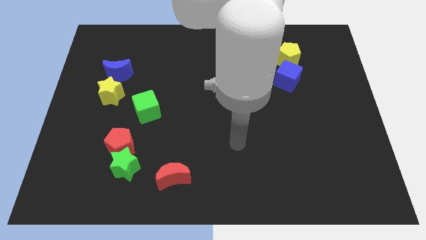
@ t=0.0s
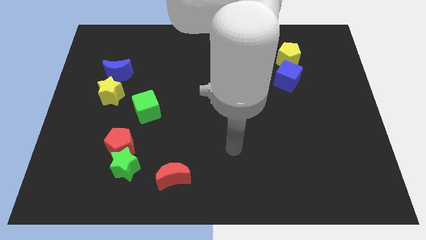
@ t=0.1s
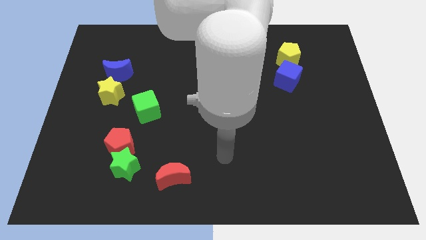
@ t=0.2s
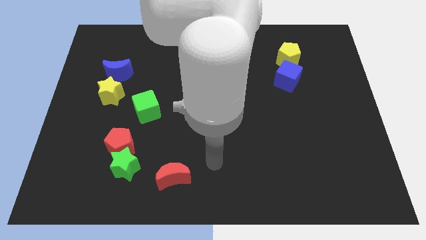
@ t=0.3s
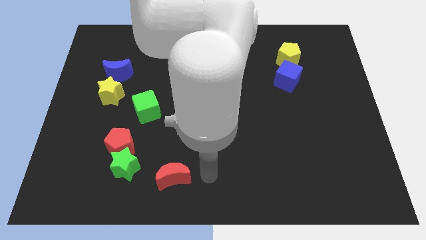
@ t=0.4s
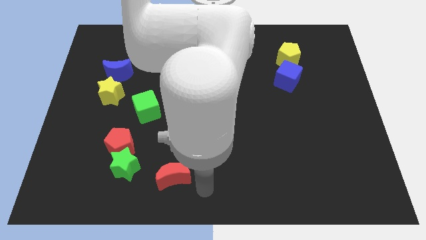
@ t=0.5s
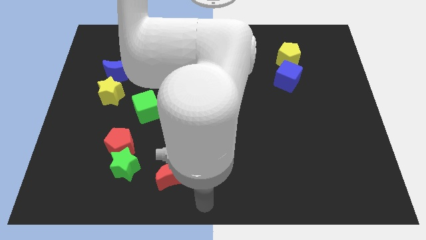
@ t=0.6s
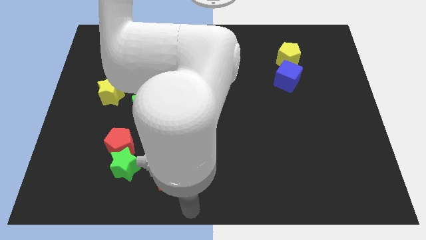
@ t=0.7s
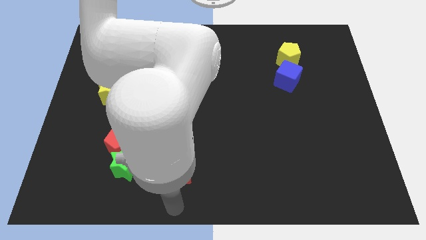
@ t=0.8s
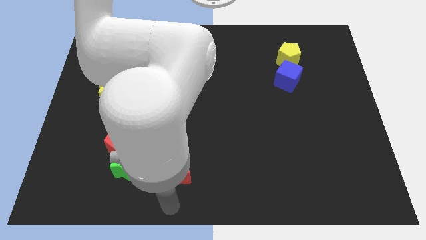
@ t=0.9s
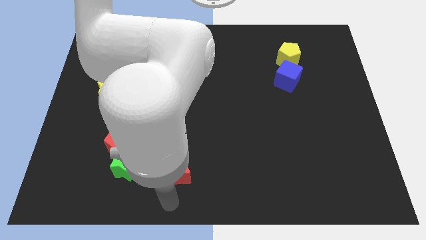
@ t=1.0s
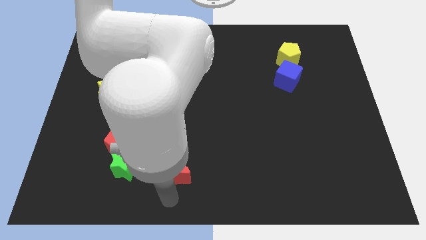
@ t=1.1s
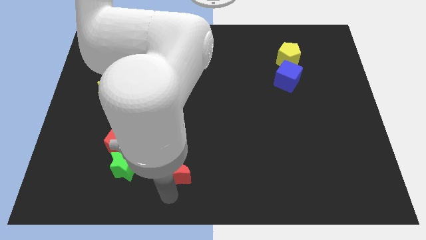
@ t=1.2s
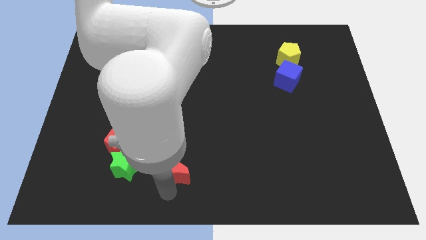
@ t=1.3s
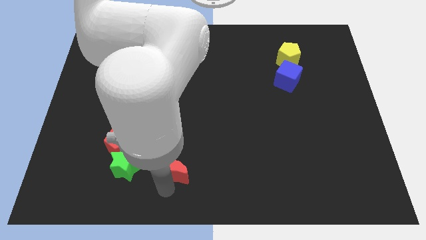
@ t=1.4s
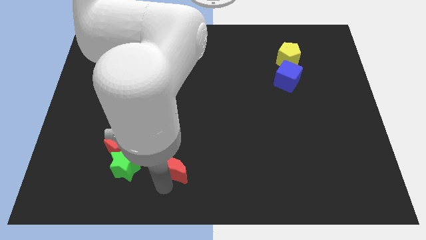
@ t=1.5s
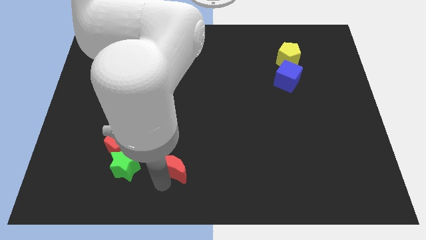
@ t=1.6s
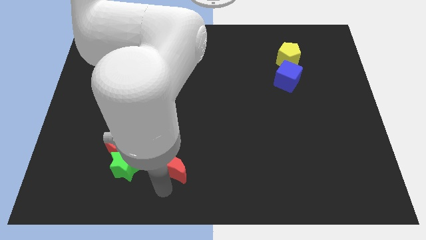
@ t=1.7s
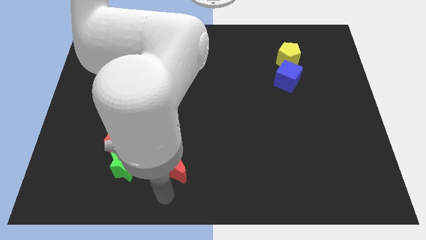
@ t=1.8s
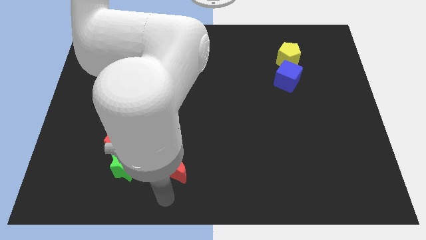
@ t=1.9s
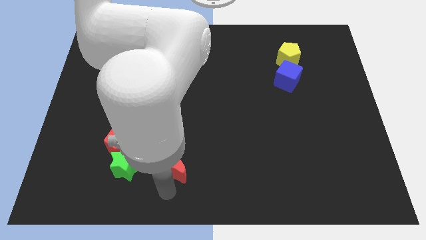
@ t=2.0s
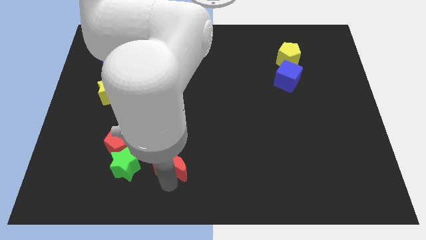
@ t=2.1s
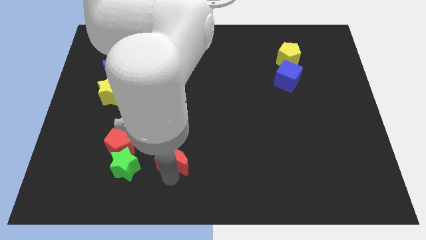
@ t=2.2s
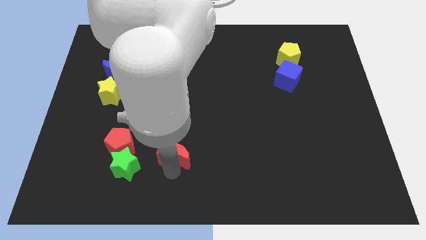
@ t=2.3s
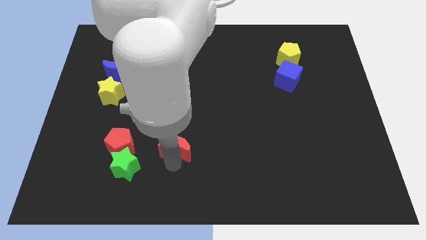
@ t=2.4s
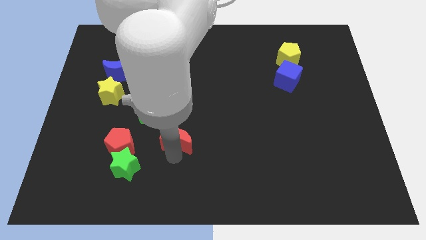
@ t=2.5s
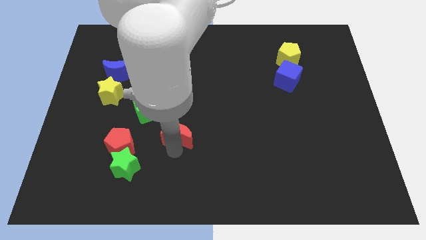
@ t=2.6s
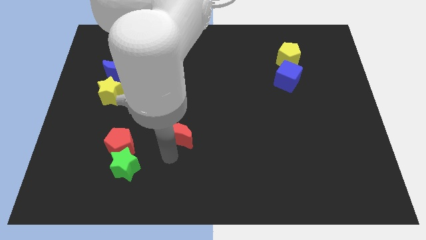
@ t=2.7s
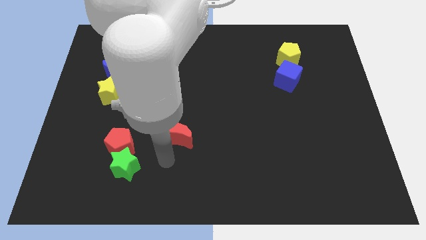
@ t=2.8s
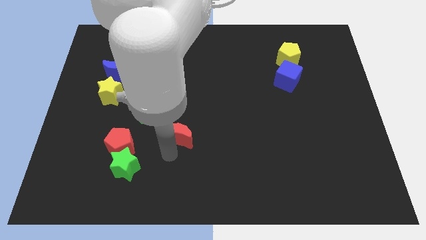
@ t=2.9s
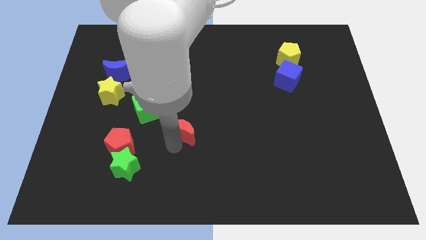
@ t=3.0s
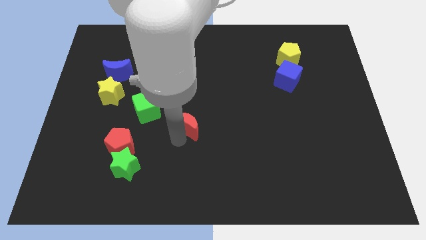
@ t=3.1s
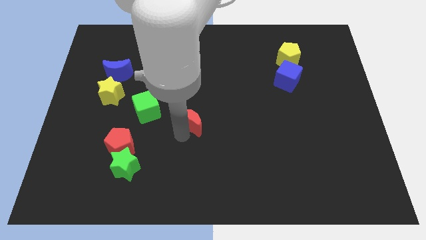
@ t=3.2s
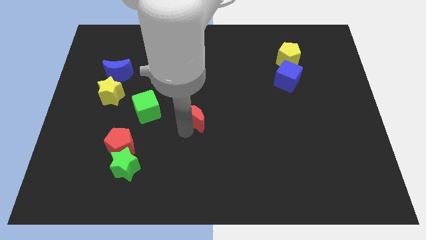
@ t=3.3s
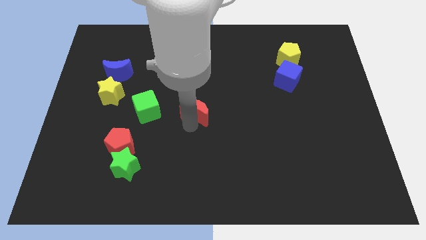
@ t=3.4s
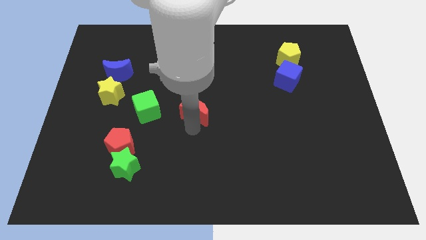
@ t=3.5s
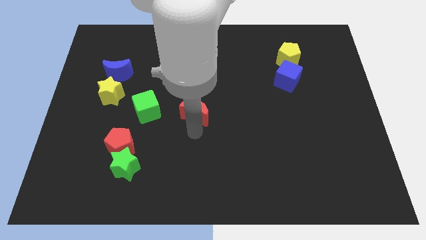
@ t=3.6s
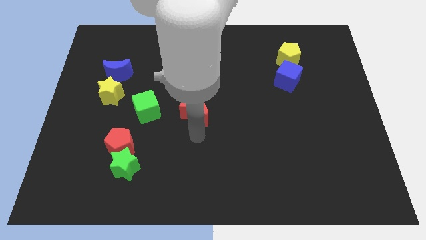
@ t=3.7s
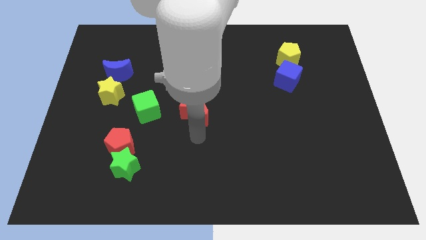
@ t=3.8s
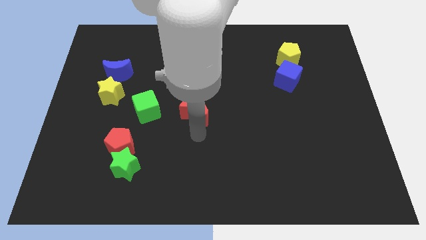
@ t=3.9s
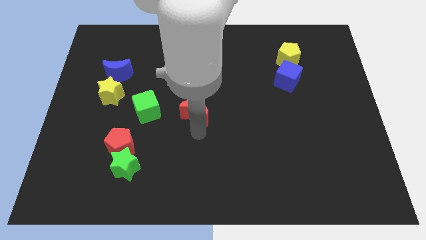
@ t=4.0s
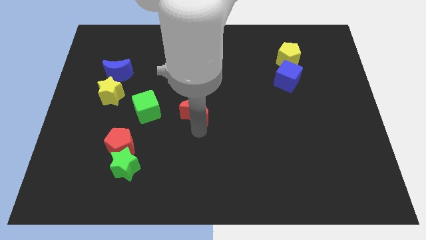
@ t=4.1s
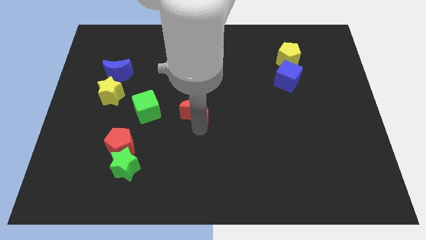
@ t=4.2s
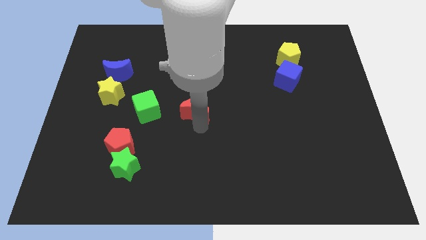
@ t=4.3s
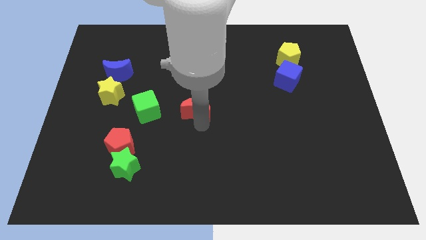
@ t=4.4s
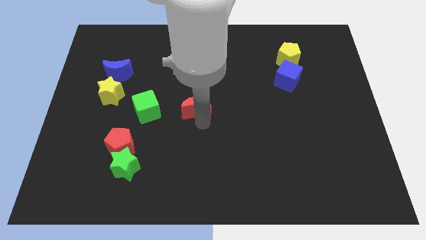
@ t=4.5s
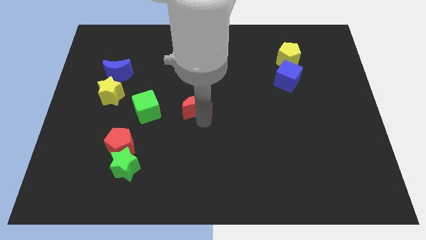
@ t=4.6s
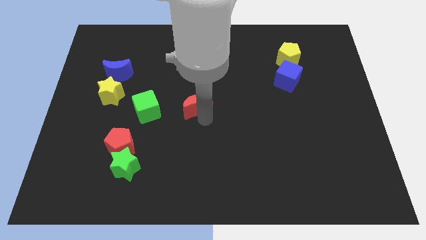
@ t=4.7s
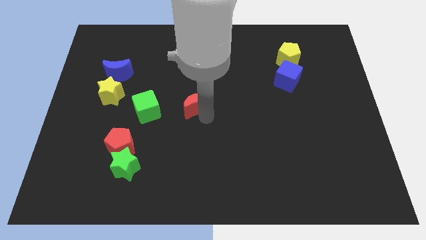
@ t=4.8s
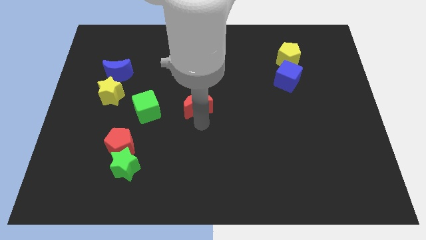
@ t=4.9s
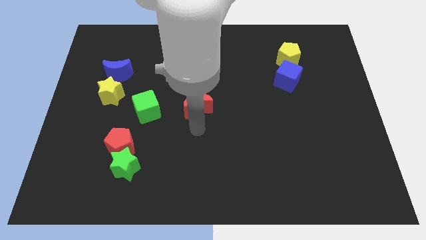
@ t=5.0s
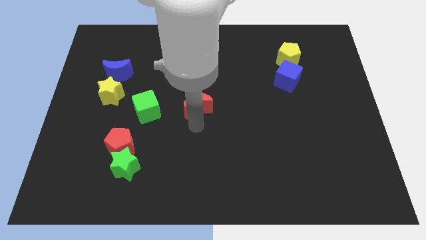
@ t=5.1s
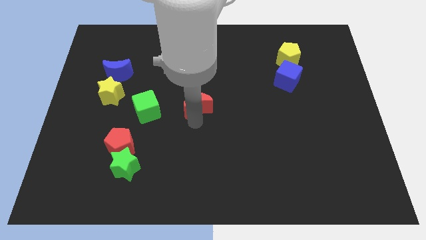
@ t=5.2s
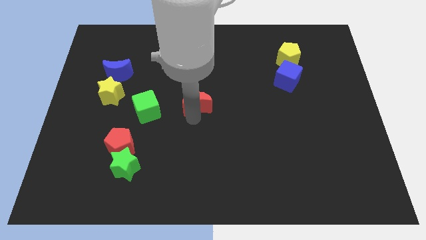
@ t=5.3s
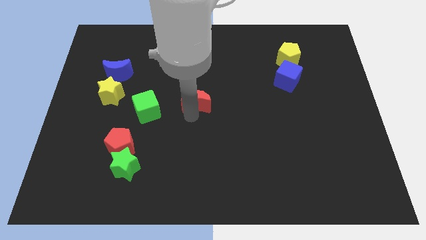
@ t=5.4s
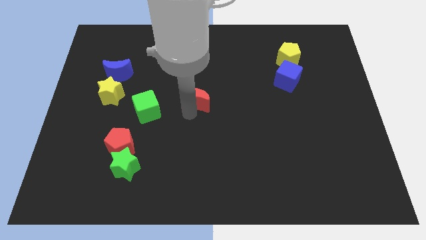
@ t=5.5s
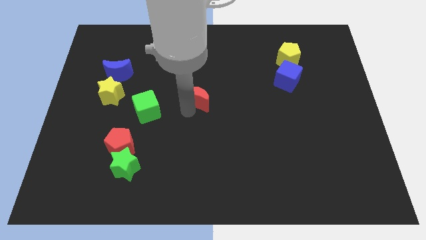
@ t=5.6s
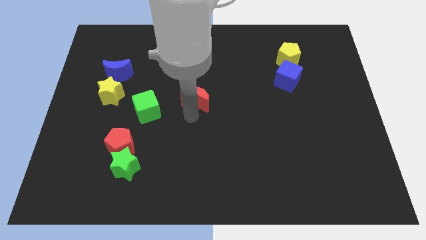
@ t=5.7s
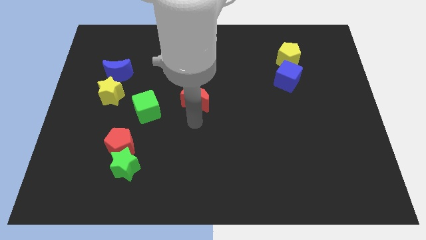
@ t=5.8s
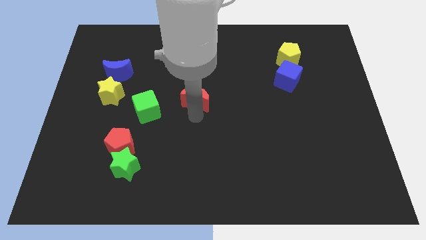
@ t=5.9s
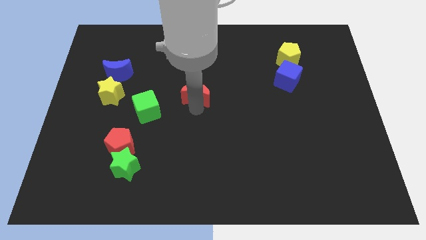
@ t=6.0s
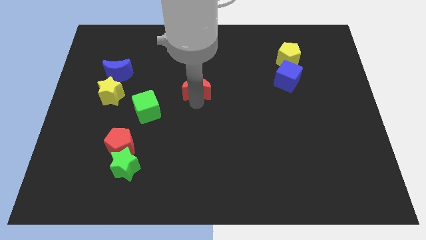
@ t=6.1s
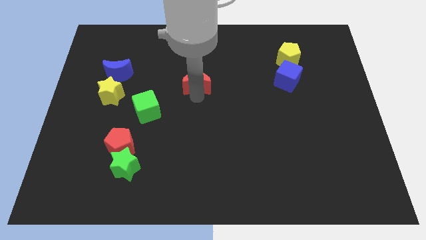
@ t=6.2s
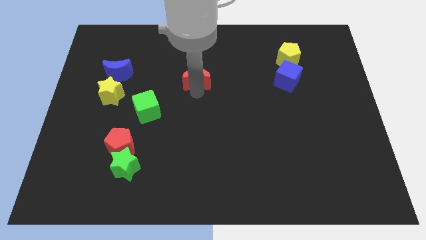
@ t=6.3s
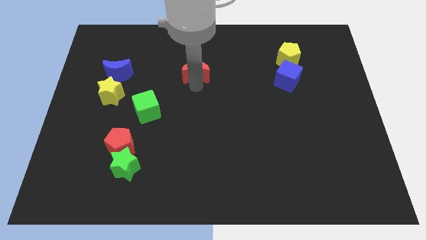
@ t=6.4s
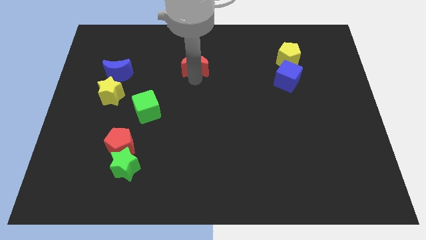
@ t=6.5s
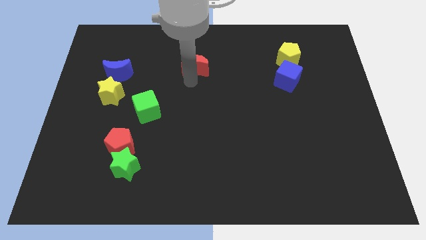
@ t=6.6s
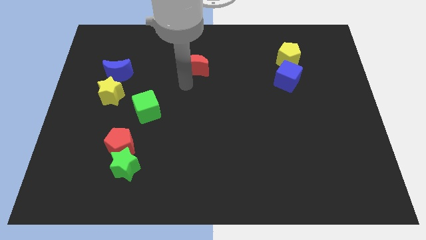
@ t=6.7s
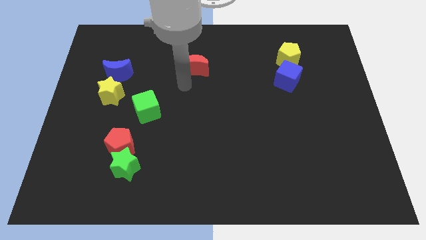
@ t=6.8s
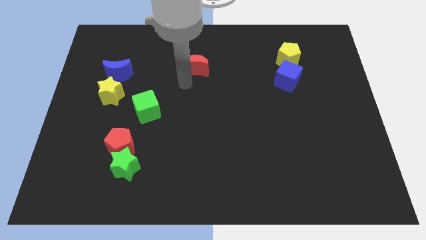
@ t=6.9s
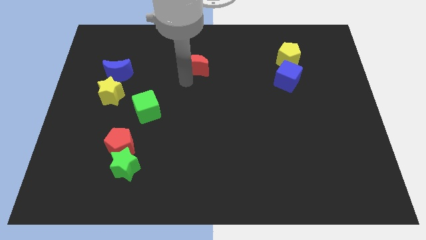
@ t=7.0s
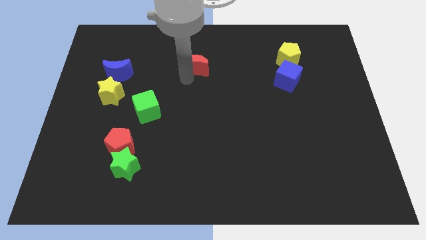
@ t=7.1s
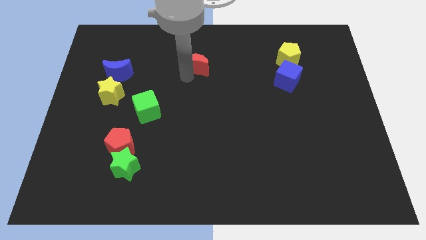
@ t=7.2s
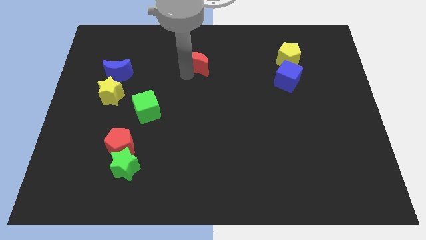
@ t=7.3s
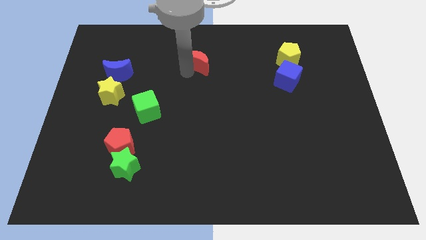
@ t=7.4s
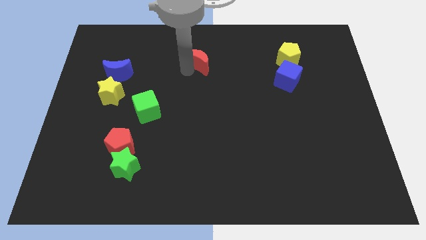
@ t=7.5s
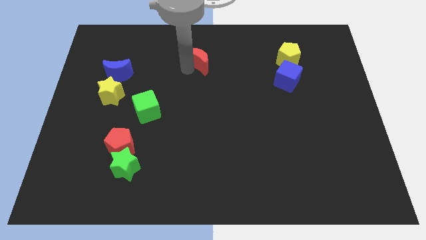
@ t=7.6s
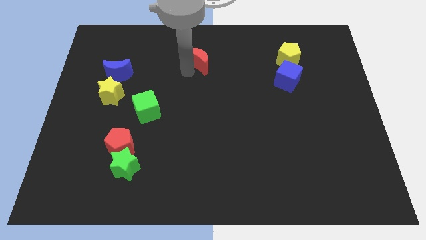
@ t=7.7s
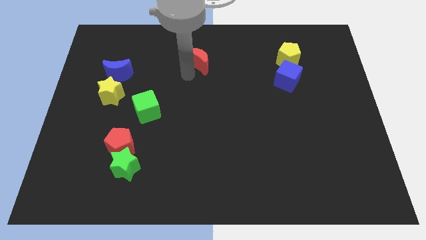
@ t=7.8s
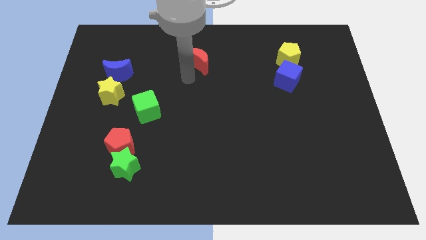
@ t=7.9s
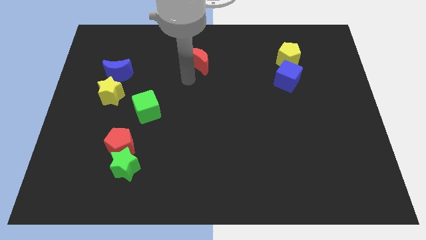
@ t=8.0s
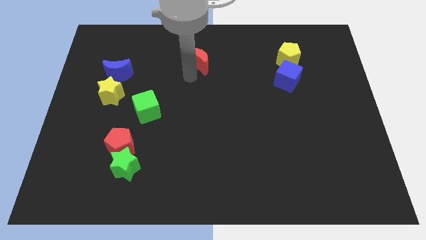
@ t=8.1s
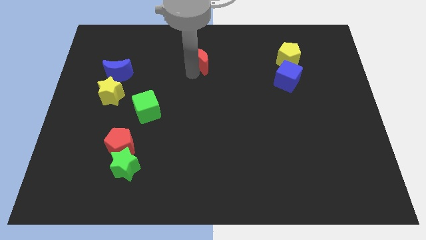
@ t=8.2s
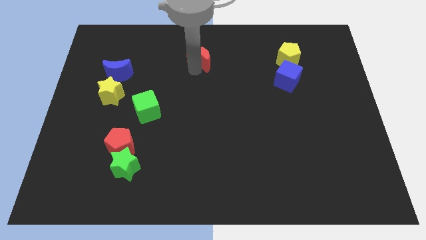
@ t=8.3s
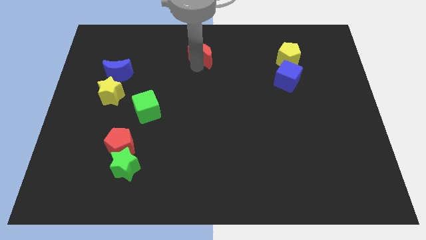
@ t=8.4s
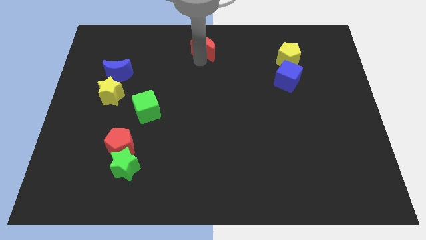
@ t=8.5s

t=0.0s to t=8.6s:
slide the red moon to the towards your base
